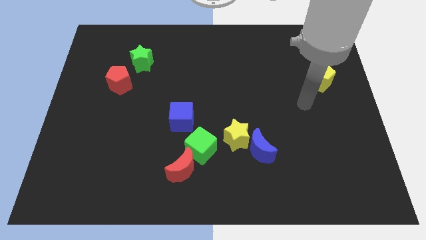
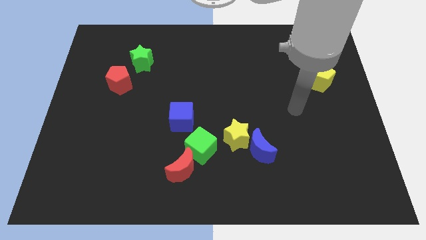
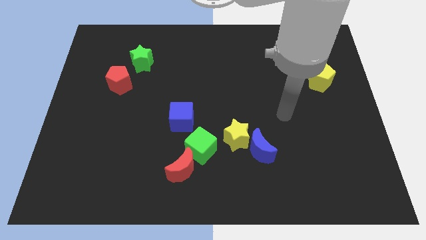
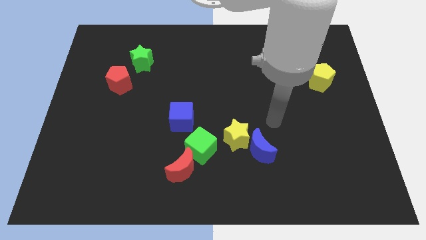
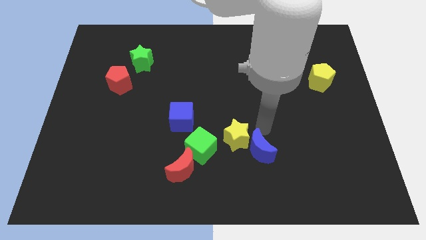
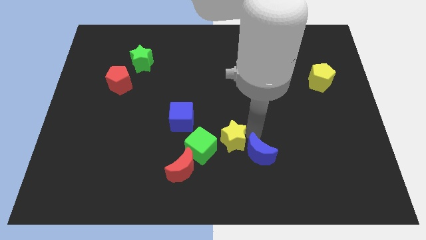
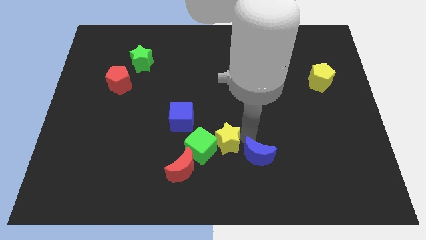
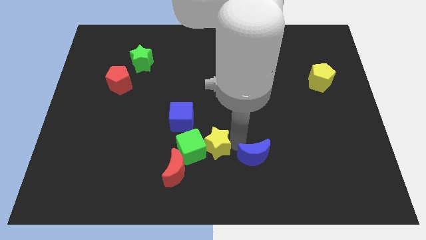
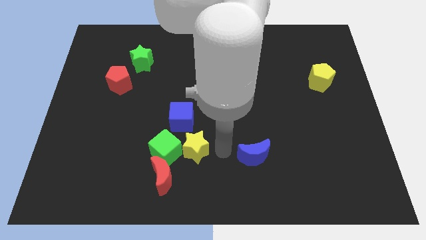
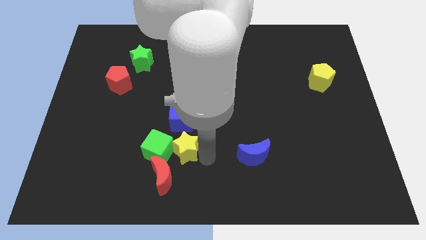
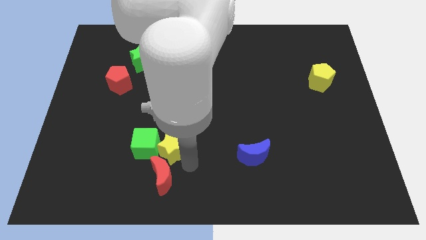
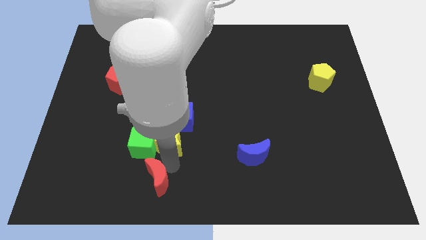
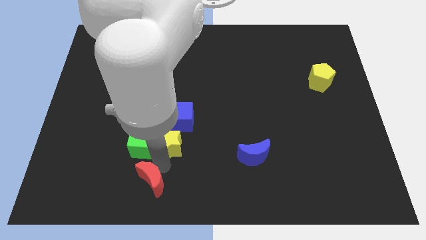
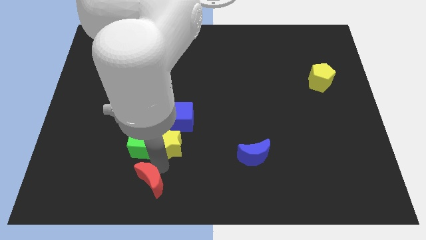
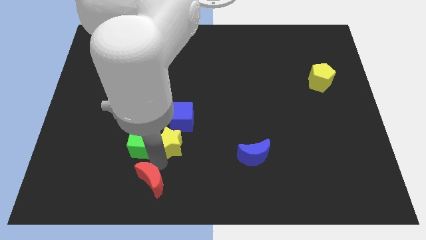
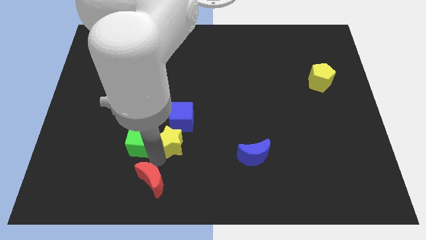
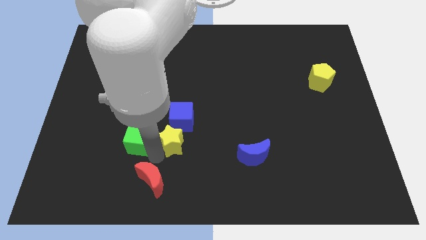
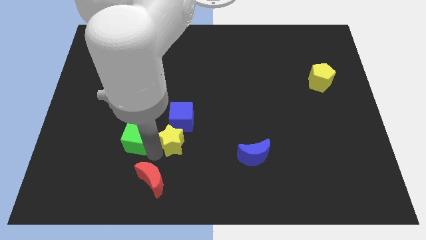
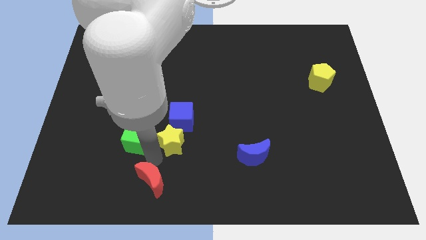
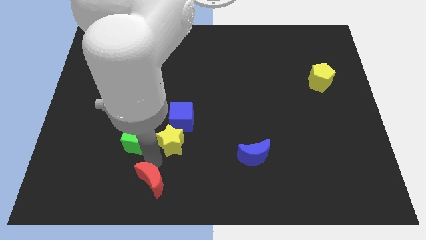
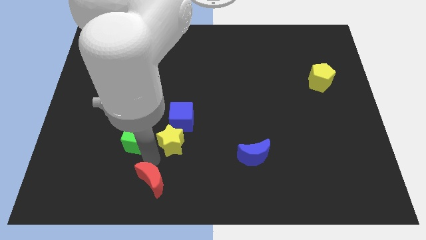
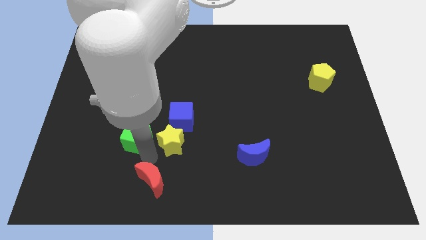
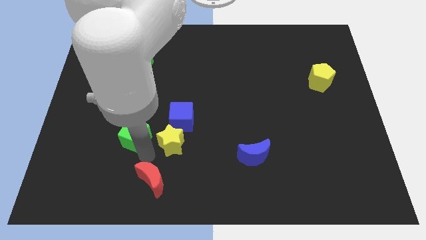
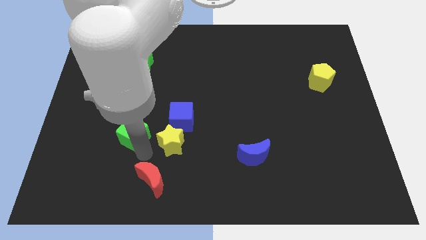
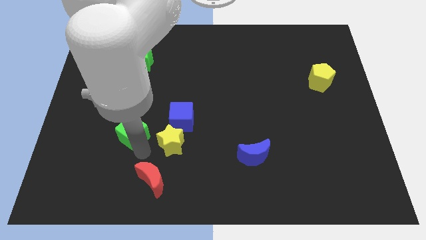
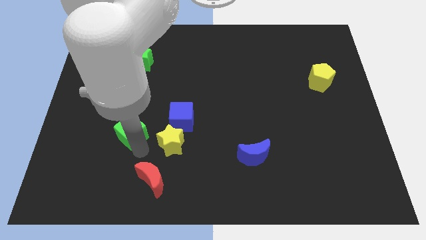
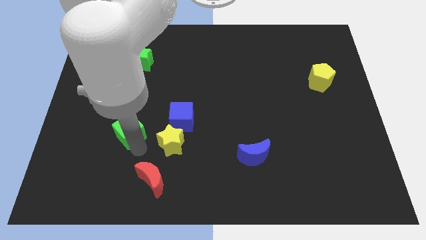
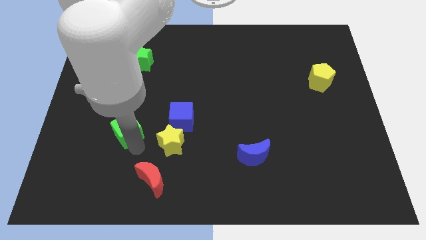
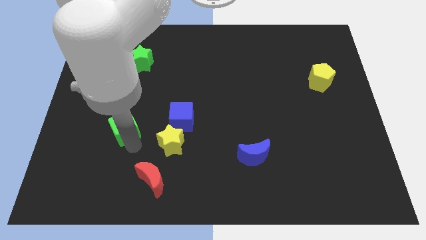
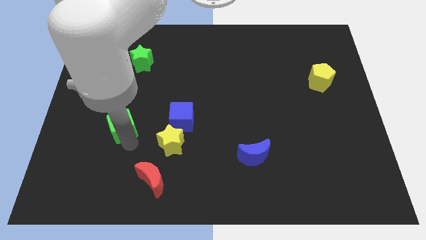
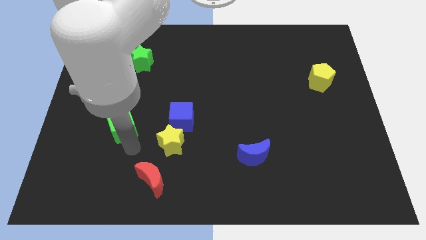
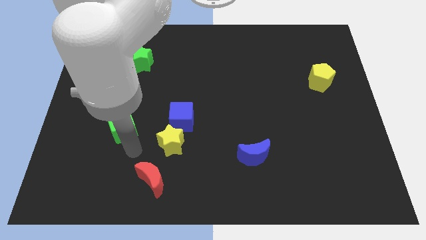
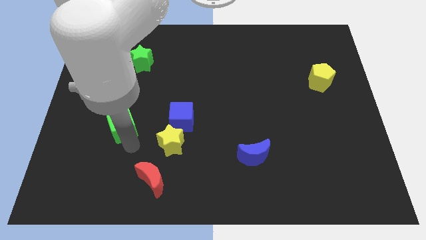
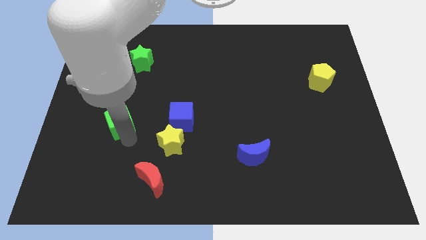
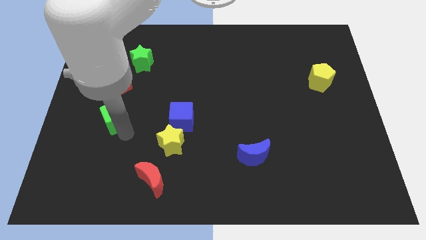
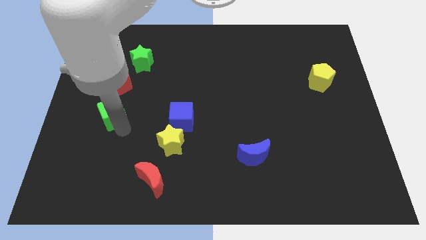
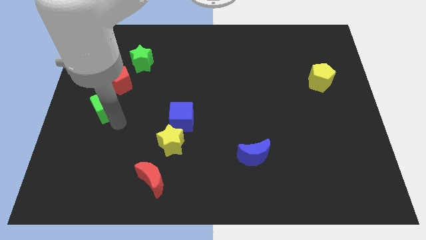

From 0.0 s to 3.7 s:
slide the green cube upwards and left

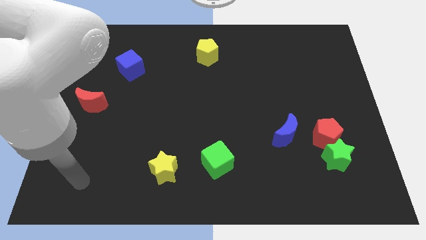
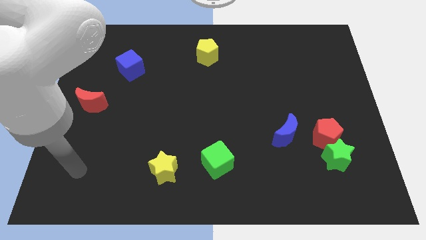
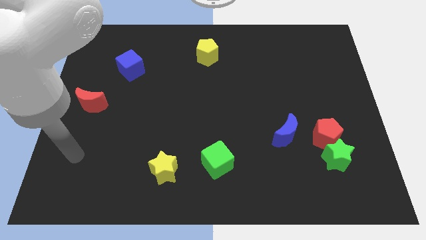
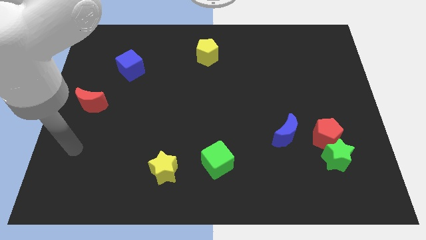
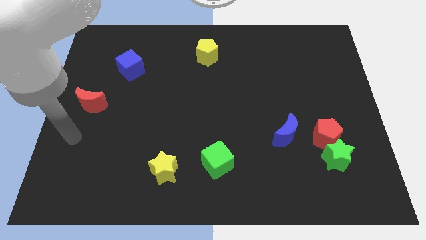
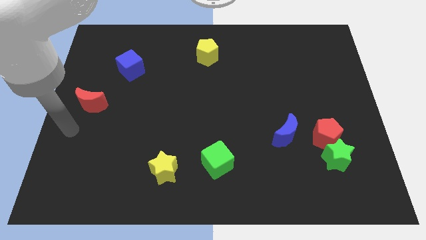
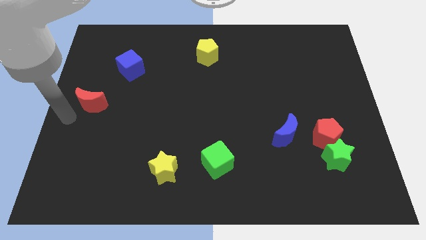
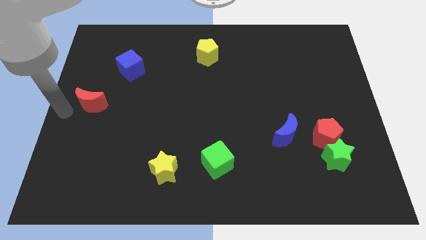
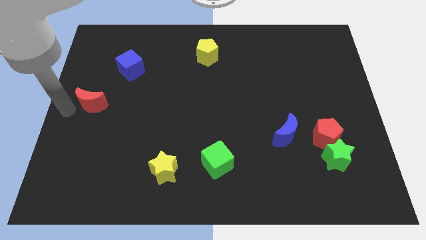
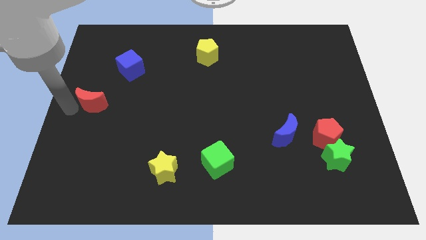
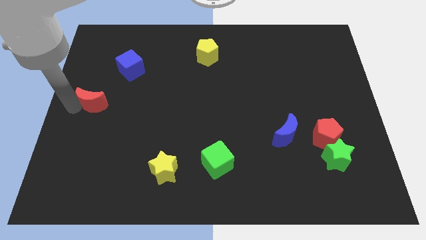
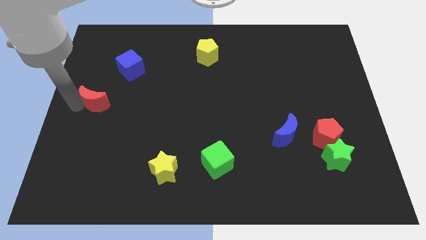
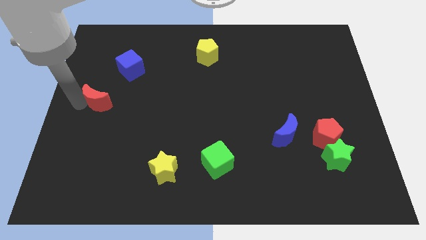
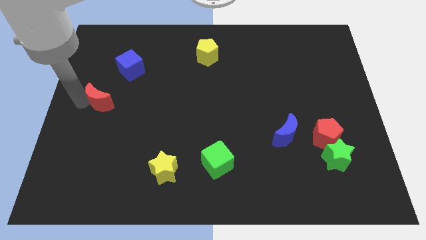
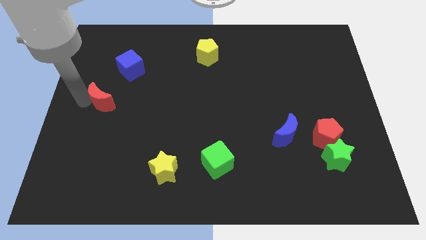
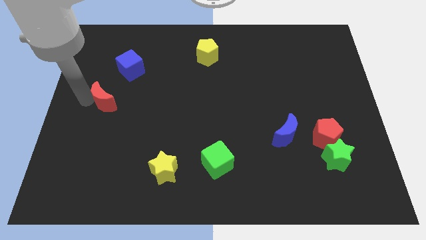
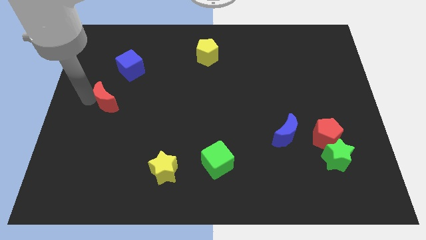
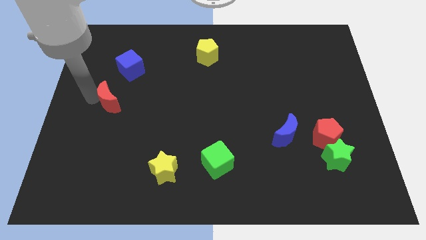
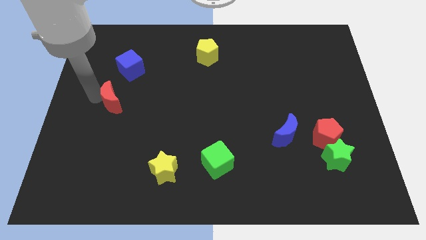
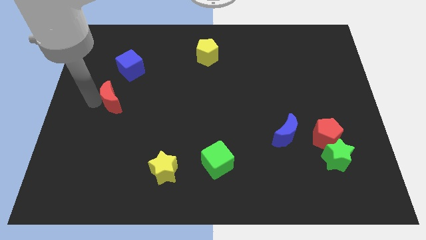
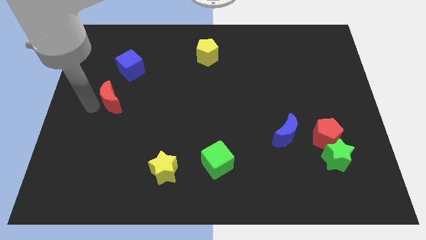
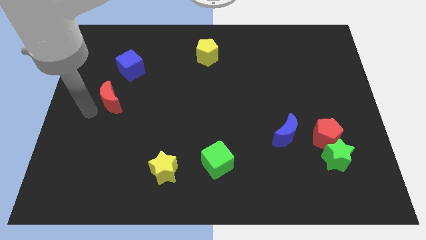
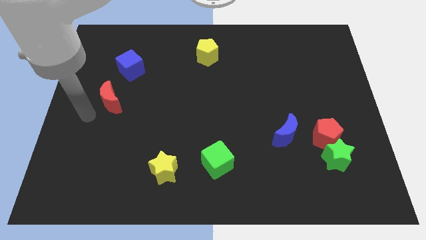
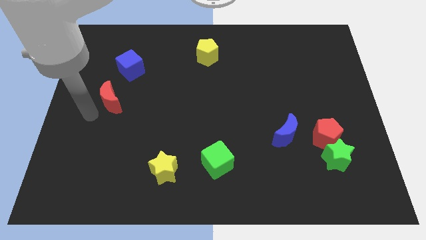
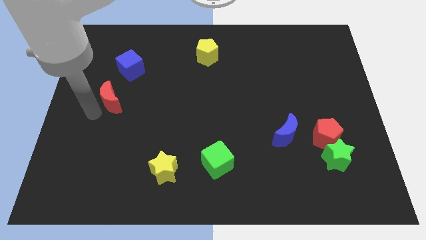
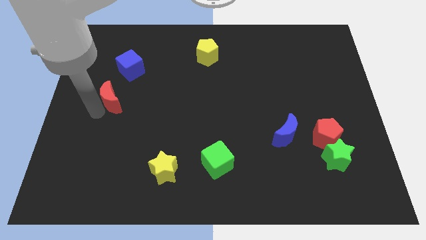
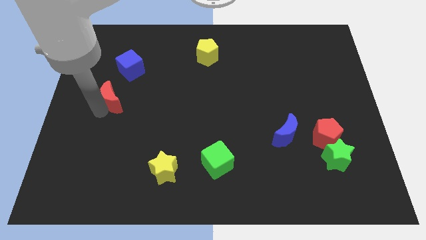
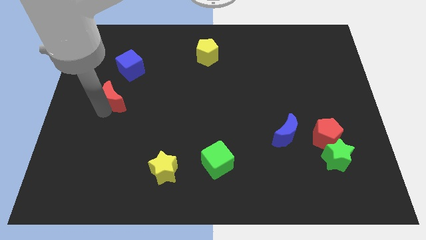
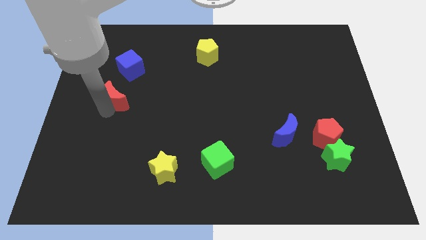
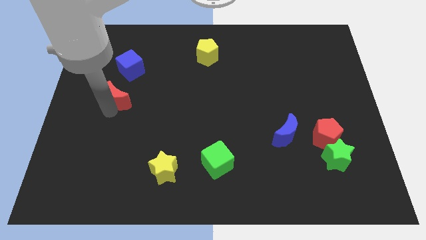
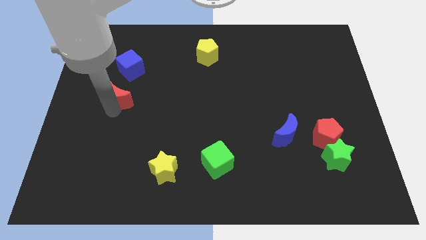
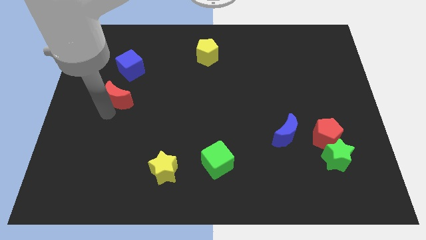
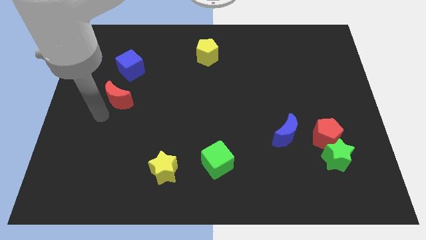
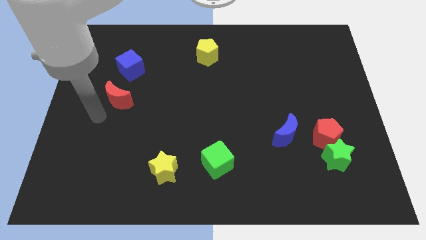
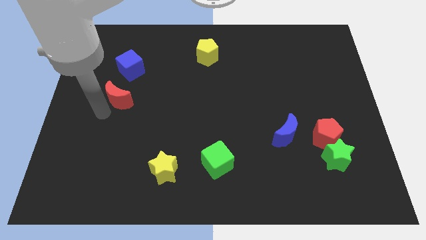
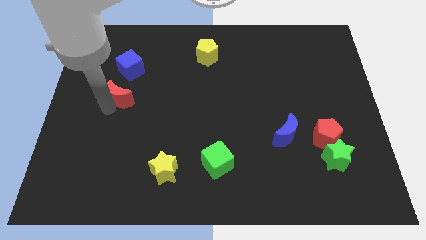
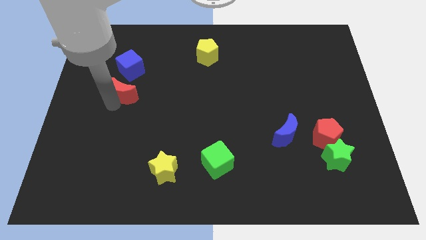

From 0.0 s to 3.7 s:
push the red moon somewhat upwards and right diagonally

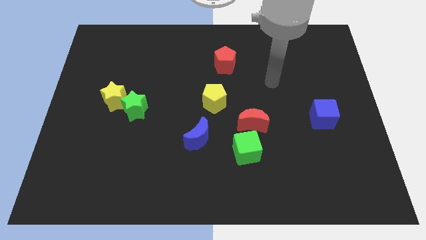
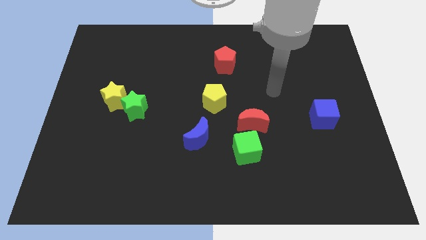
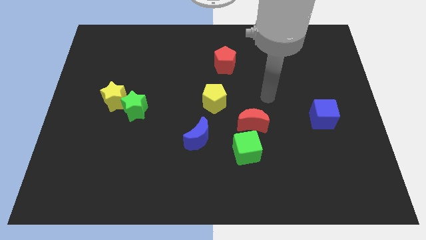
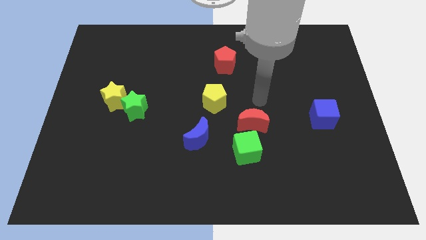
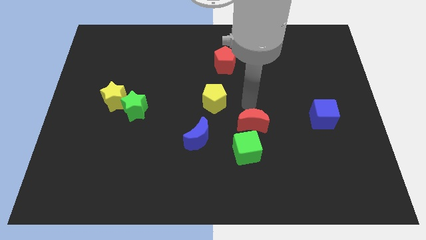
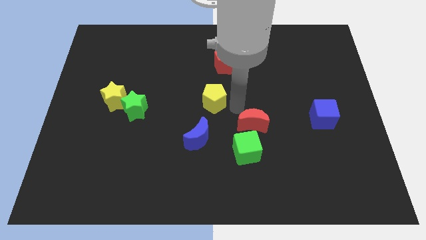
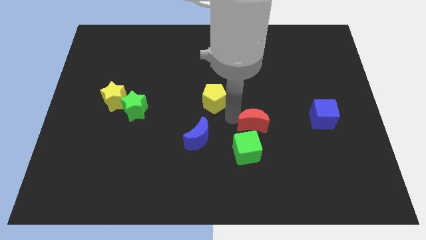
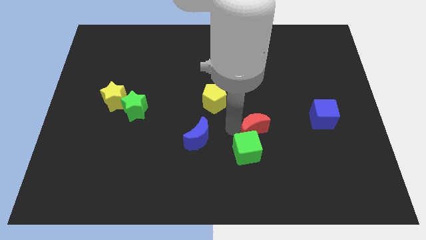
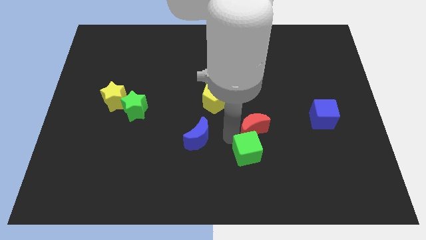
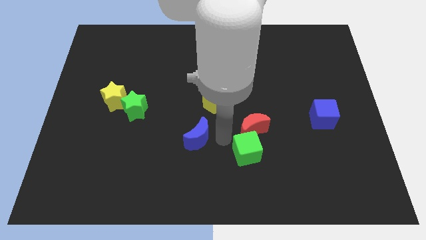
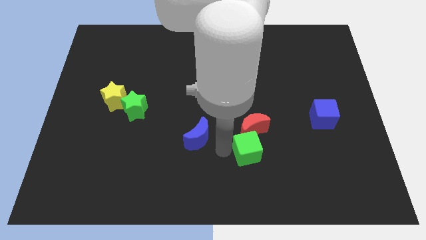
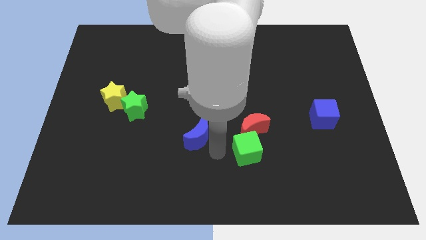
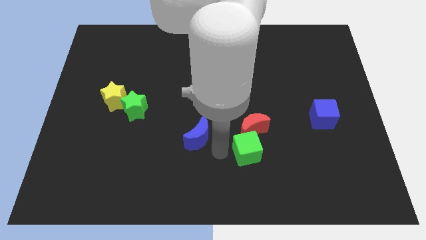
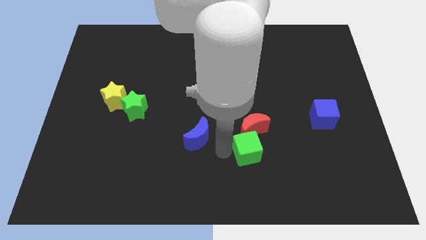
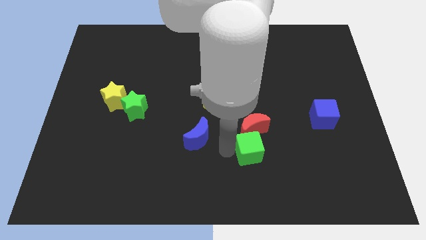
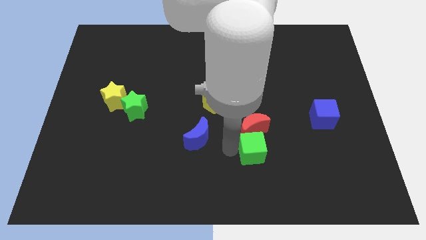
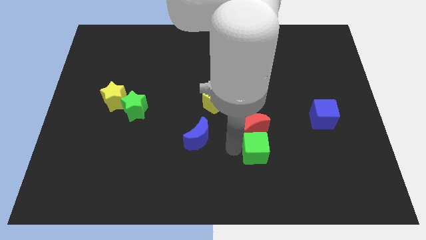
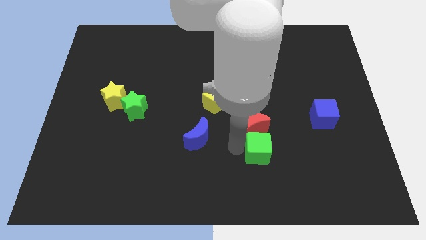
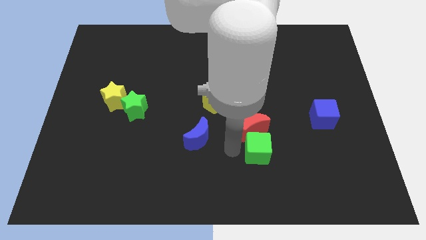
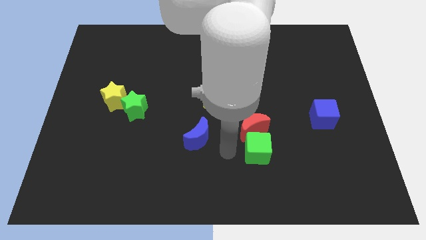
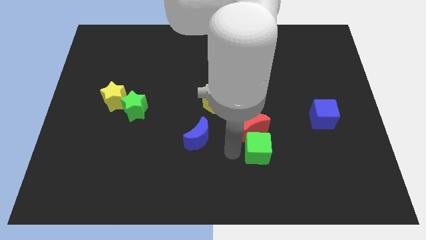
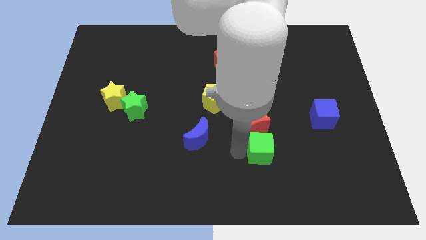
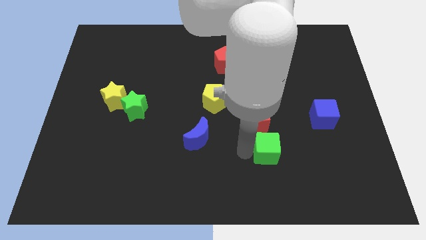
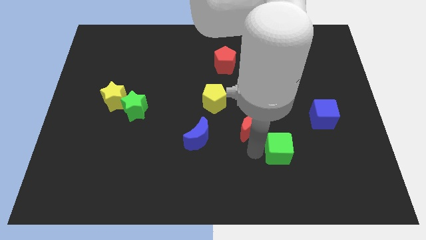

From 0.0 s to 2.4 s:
slightly slide the green cube to the right
